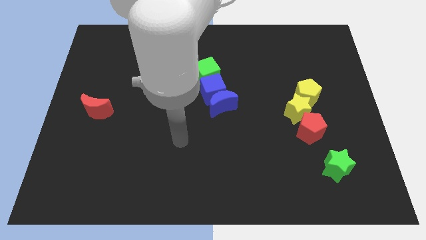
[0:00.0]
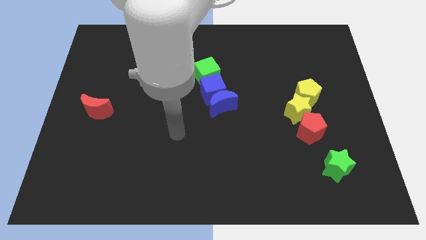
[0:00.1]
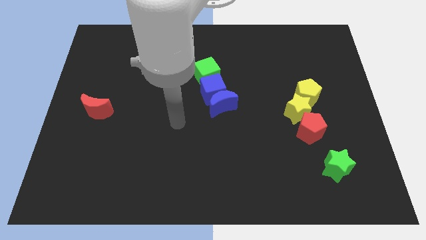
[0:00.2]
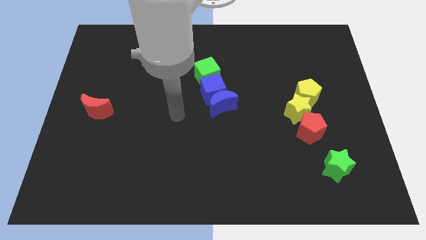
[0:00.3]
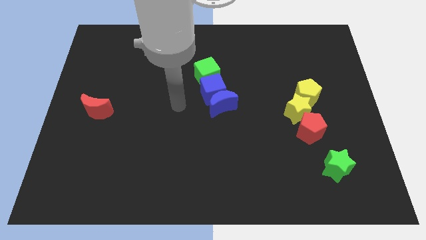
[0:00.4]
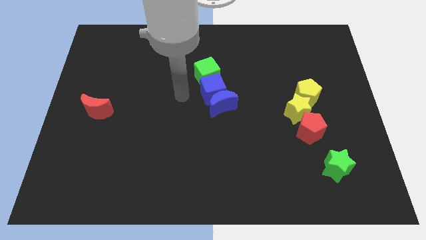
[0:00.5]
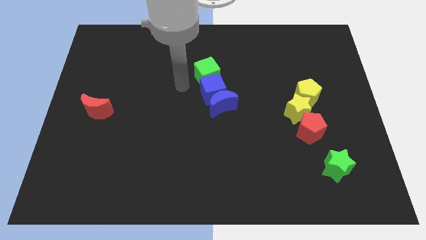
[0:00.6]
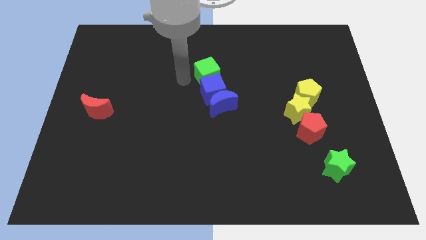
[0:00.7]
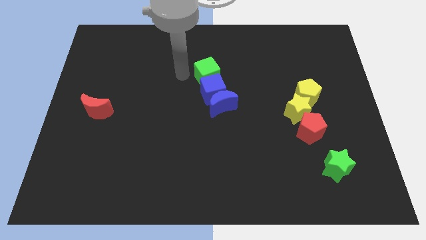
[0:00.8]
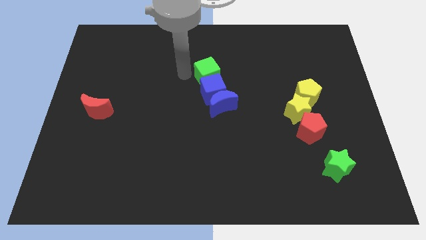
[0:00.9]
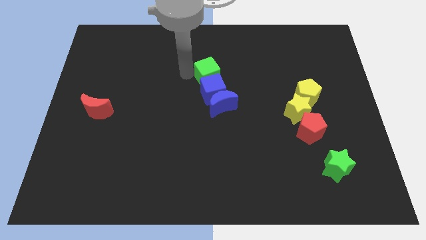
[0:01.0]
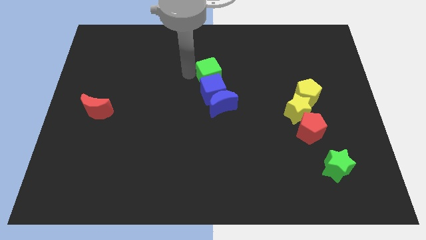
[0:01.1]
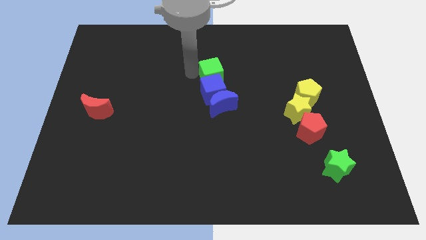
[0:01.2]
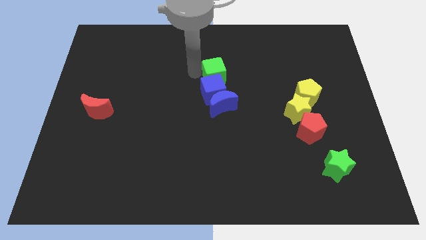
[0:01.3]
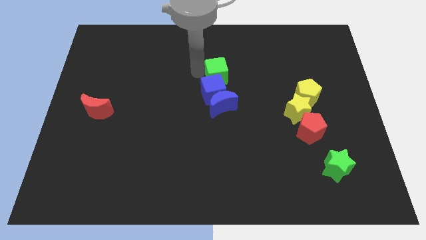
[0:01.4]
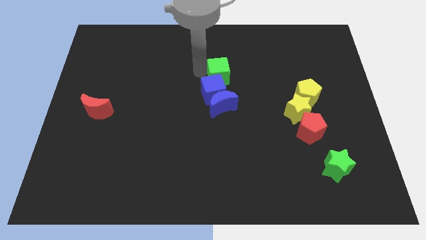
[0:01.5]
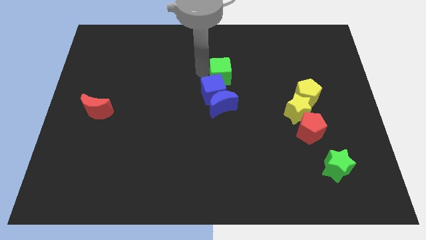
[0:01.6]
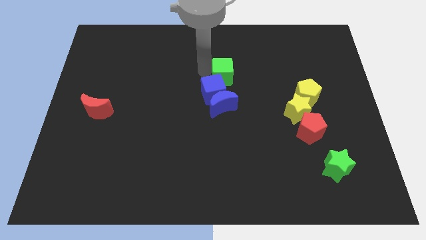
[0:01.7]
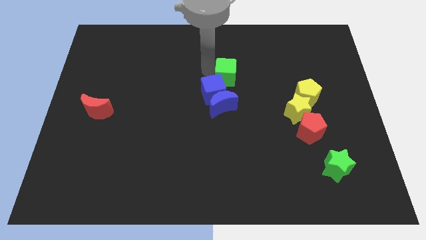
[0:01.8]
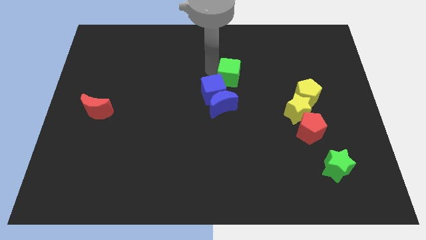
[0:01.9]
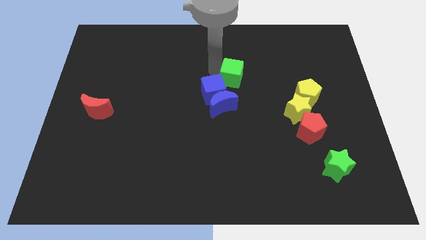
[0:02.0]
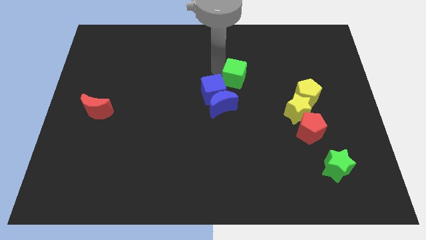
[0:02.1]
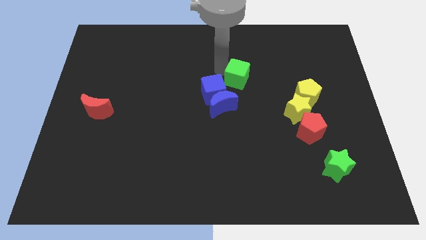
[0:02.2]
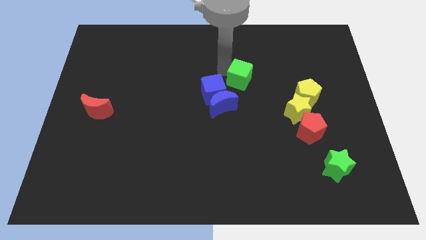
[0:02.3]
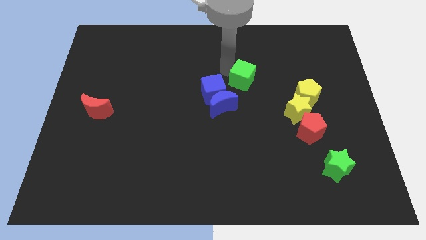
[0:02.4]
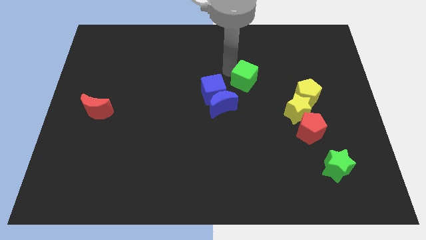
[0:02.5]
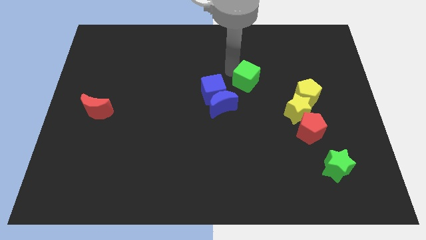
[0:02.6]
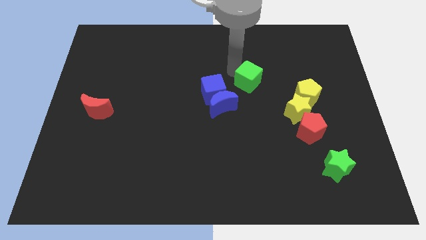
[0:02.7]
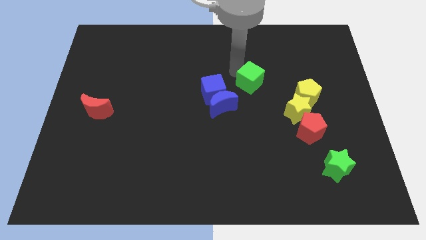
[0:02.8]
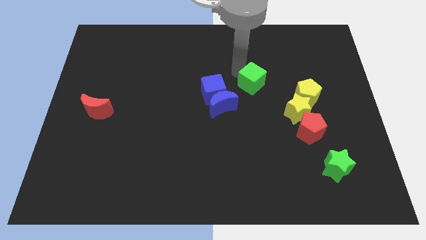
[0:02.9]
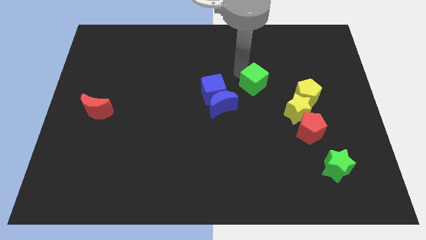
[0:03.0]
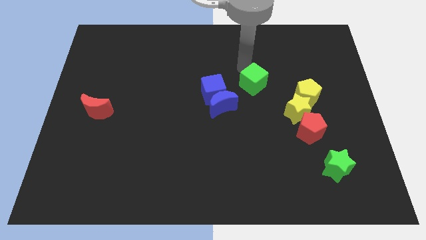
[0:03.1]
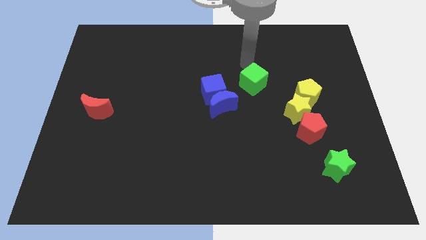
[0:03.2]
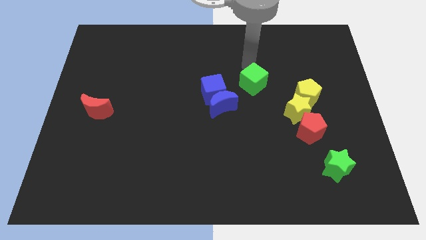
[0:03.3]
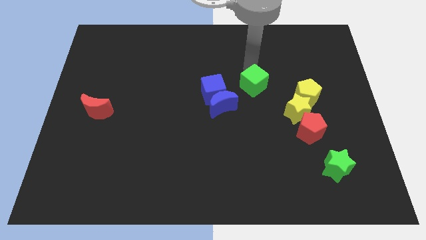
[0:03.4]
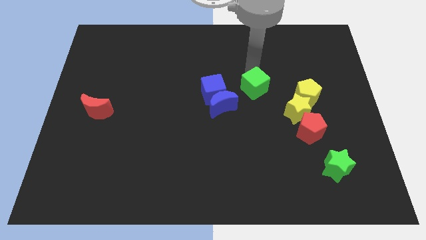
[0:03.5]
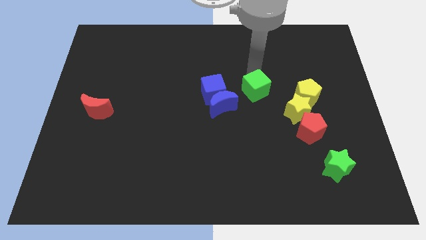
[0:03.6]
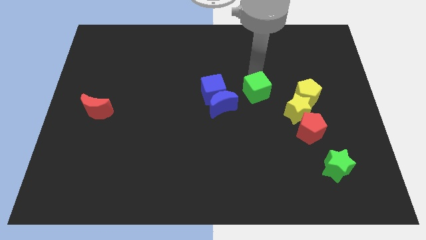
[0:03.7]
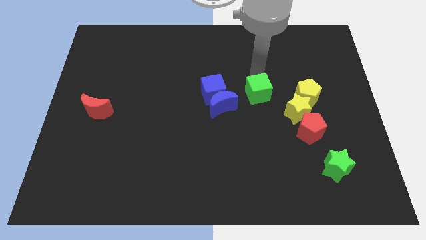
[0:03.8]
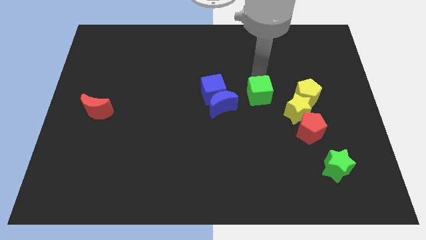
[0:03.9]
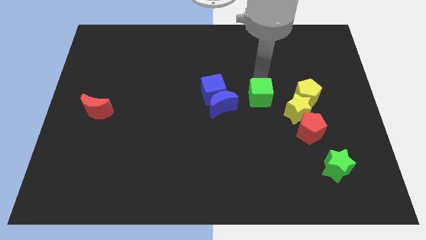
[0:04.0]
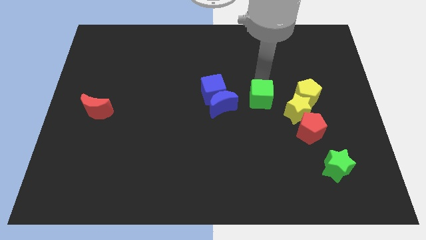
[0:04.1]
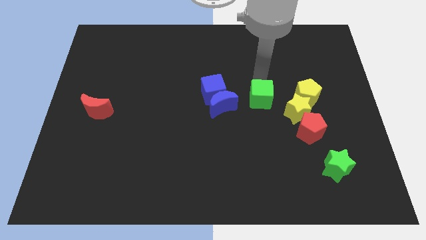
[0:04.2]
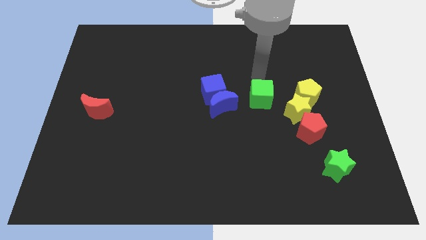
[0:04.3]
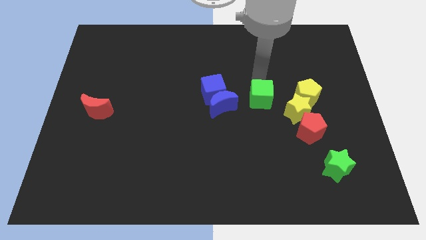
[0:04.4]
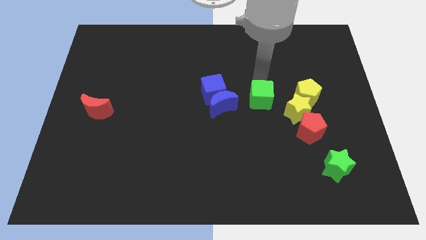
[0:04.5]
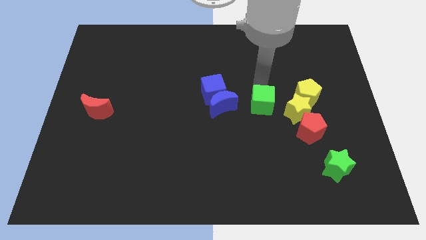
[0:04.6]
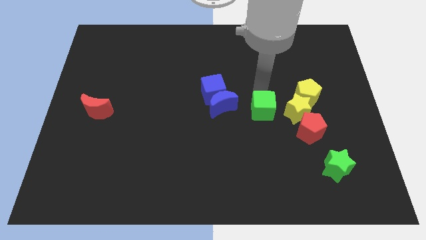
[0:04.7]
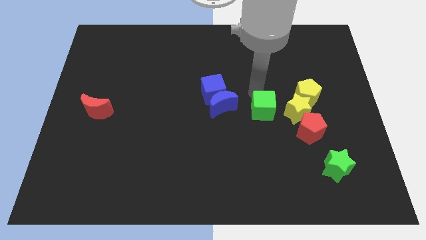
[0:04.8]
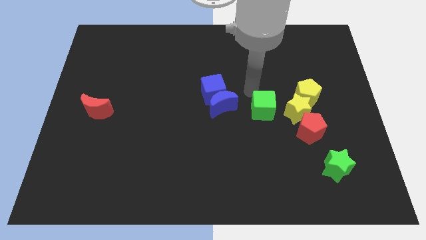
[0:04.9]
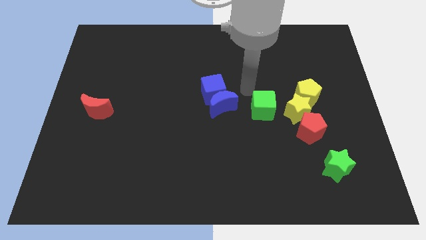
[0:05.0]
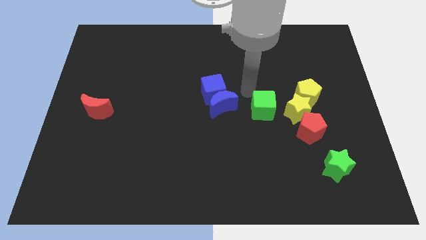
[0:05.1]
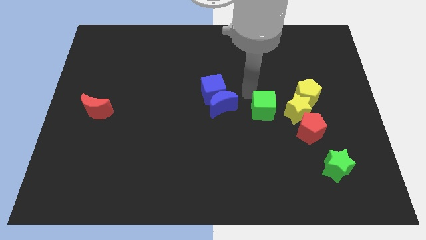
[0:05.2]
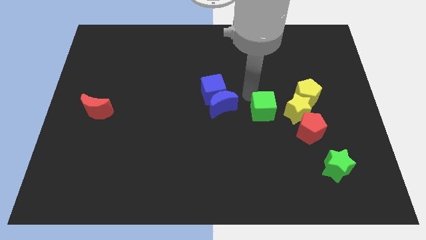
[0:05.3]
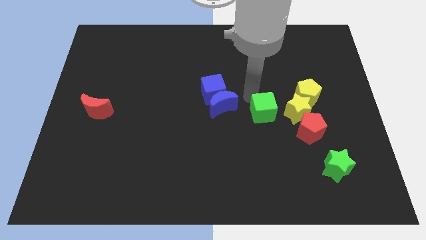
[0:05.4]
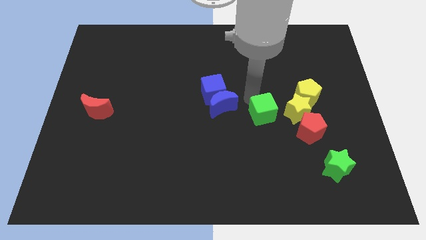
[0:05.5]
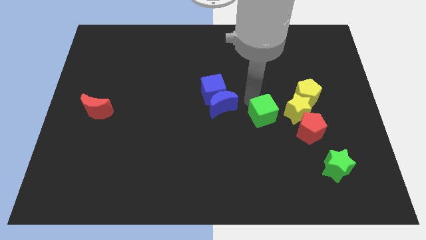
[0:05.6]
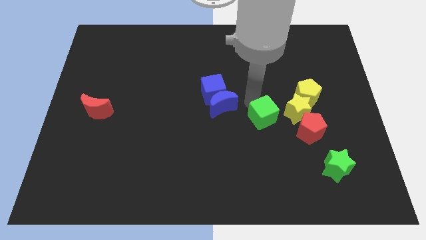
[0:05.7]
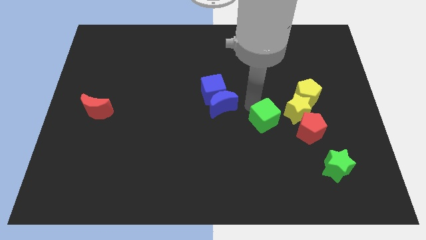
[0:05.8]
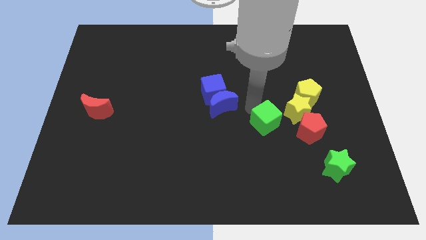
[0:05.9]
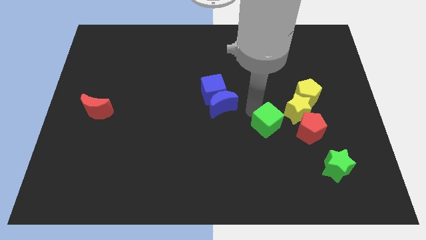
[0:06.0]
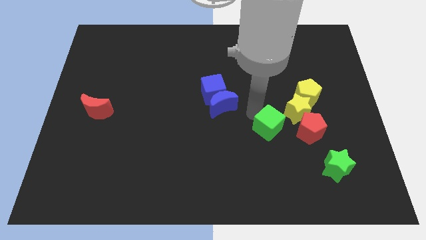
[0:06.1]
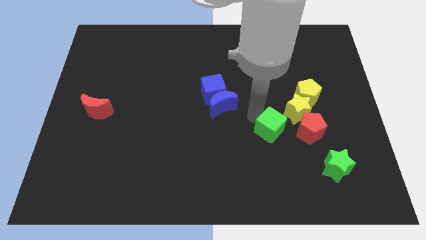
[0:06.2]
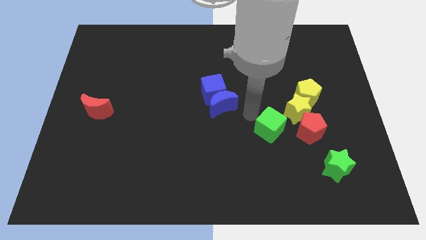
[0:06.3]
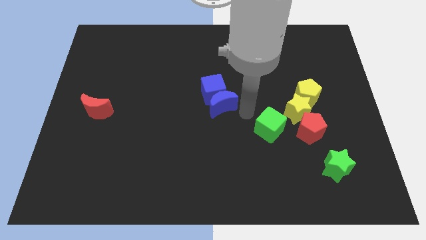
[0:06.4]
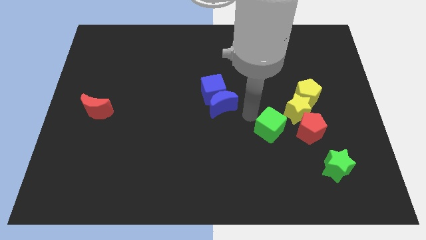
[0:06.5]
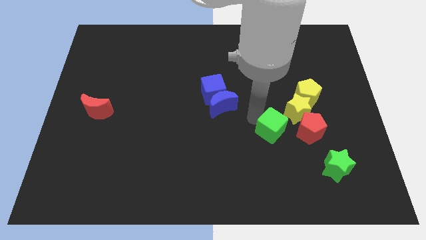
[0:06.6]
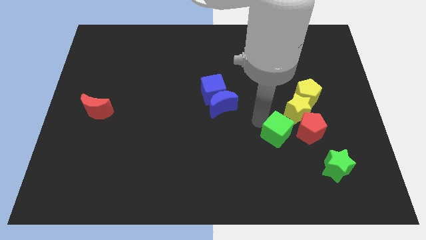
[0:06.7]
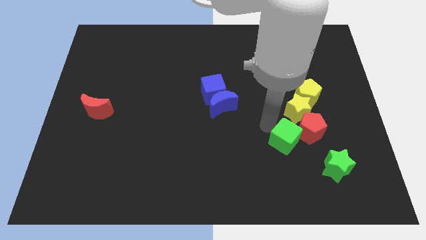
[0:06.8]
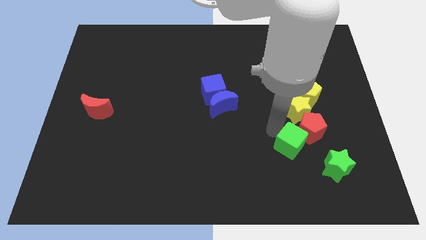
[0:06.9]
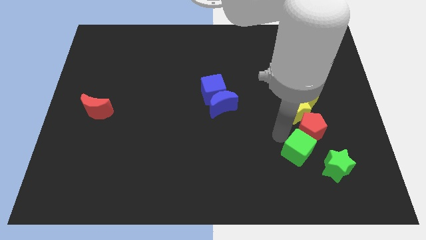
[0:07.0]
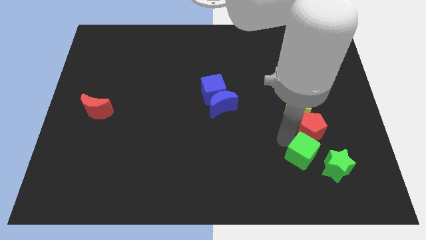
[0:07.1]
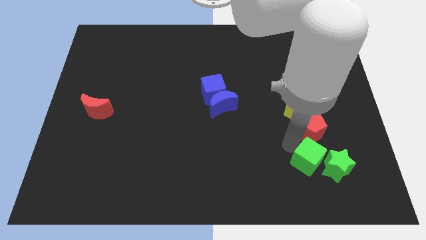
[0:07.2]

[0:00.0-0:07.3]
move the green cube next to the green star

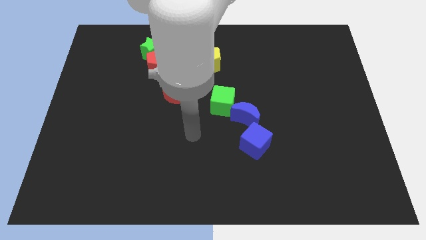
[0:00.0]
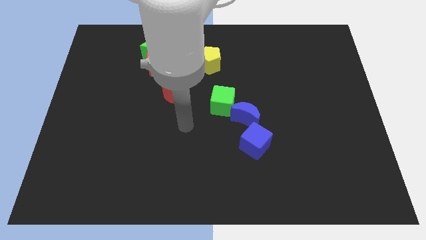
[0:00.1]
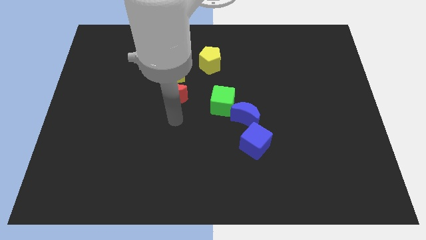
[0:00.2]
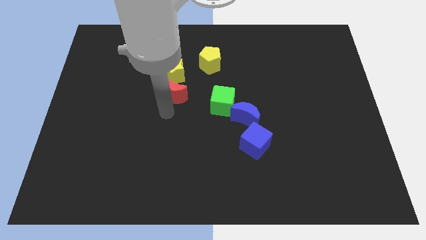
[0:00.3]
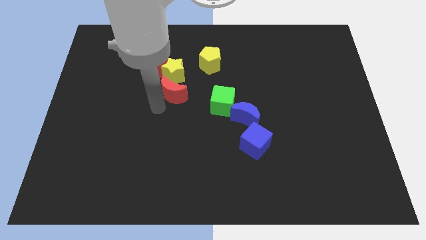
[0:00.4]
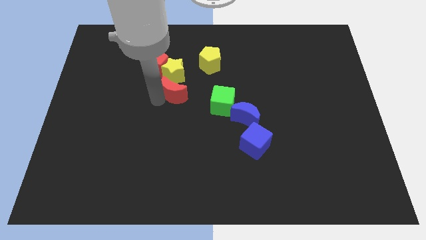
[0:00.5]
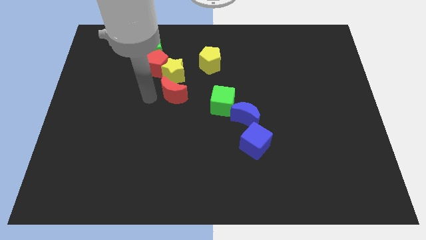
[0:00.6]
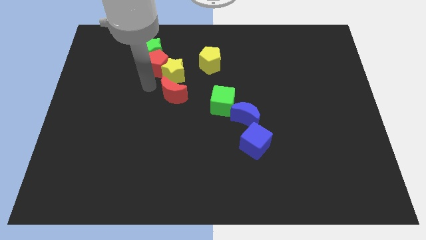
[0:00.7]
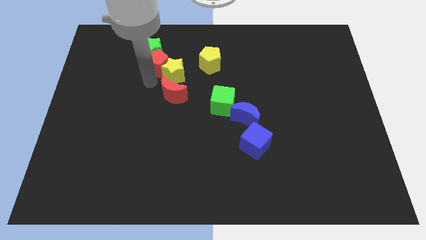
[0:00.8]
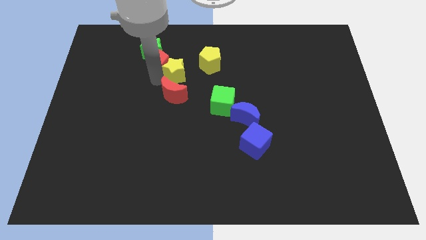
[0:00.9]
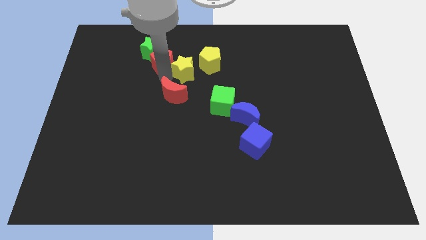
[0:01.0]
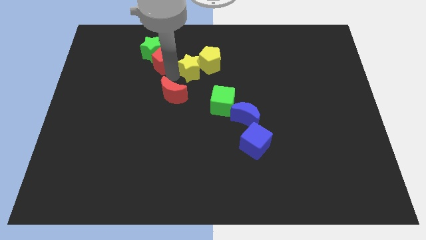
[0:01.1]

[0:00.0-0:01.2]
push the yellow star towards the yellow pentagon
